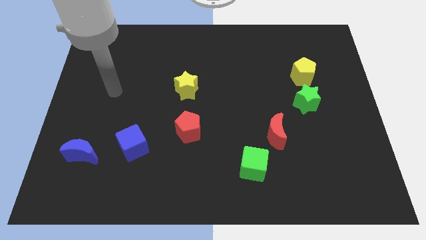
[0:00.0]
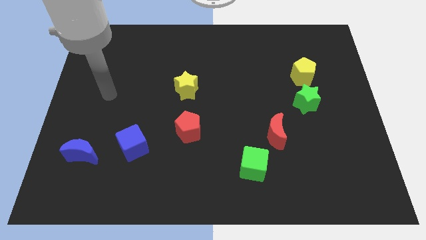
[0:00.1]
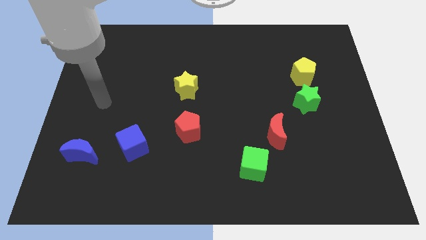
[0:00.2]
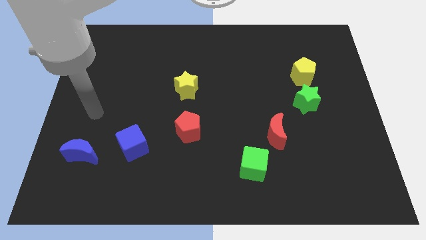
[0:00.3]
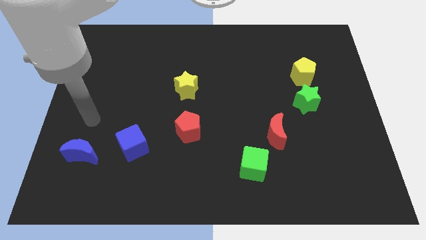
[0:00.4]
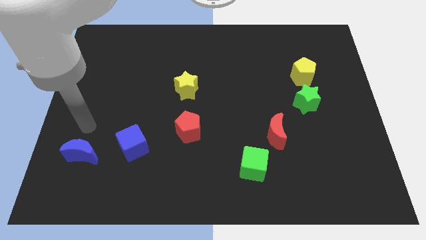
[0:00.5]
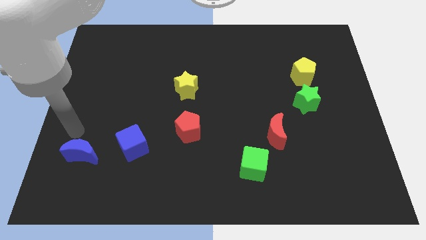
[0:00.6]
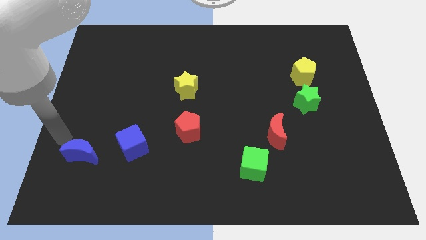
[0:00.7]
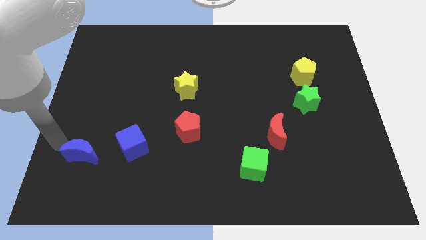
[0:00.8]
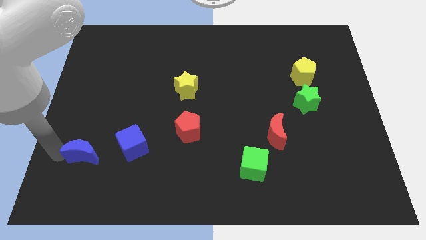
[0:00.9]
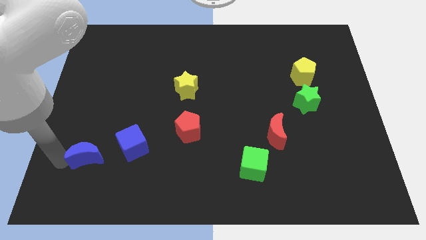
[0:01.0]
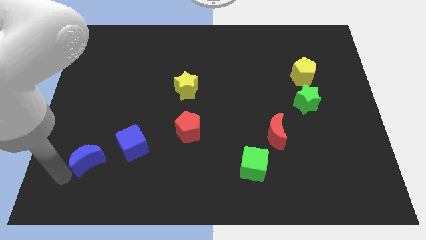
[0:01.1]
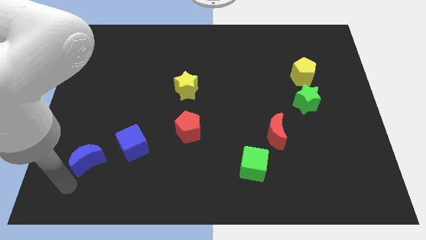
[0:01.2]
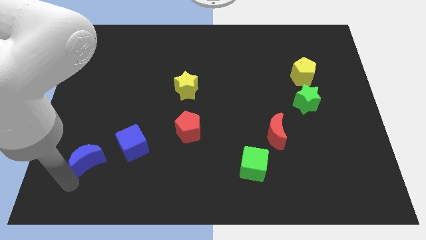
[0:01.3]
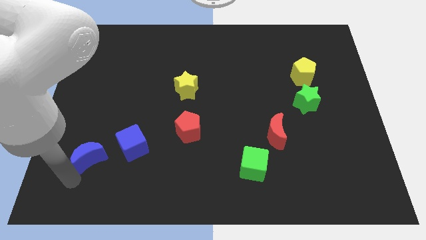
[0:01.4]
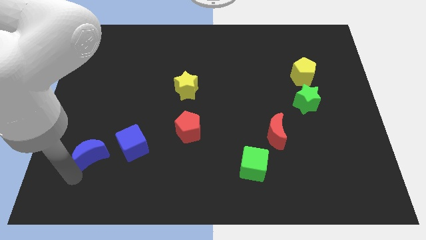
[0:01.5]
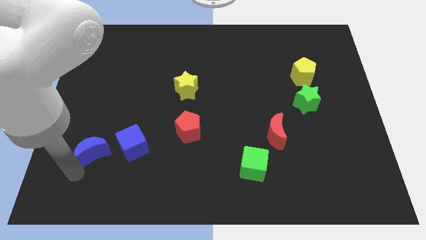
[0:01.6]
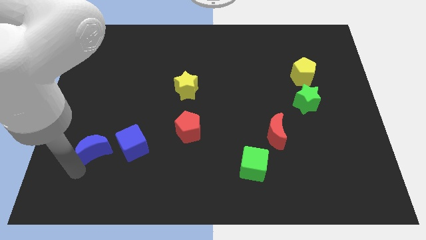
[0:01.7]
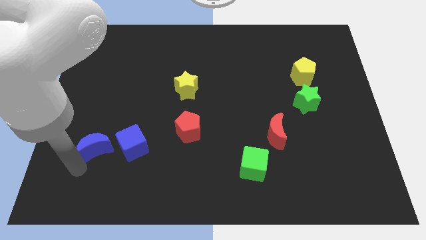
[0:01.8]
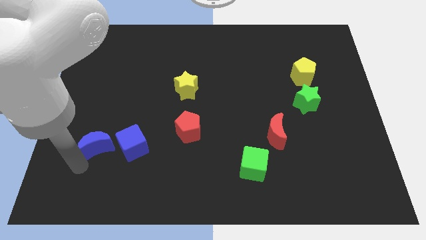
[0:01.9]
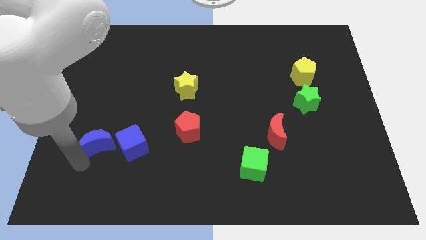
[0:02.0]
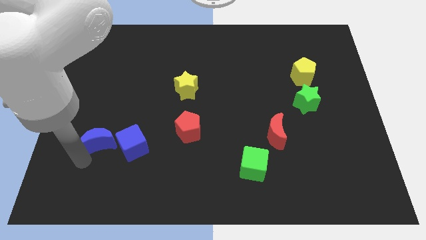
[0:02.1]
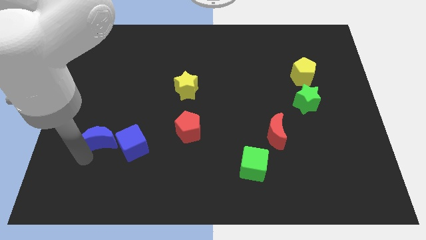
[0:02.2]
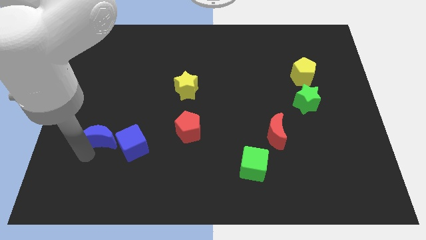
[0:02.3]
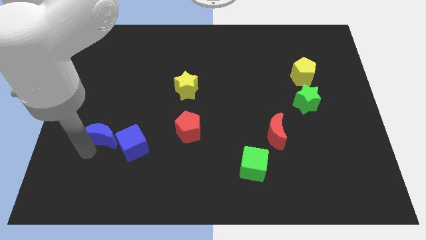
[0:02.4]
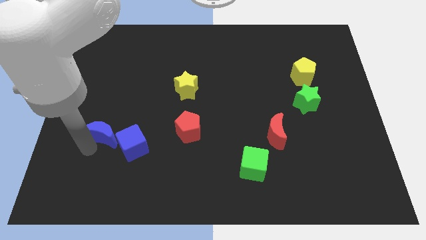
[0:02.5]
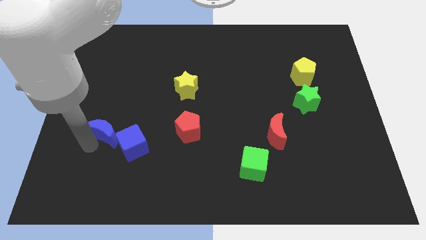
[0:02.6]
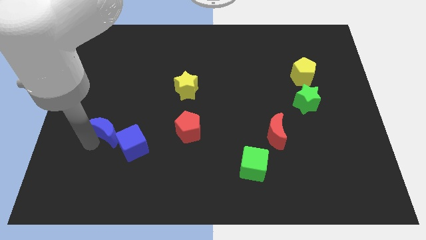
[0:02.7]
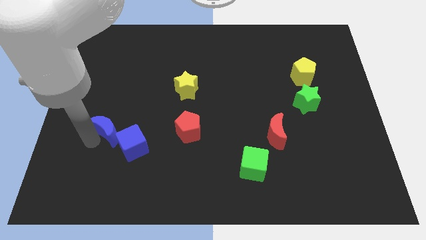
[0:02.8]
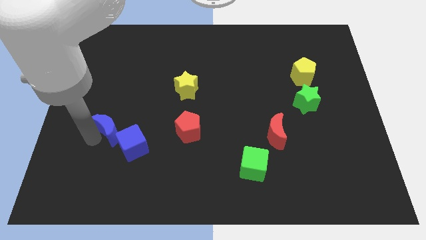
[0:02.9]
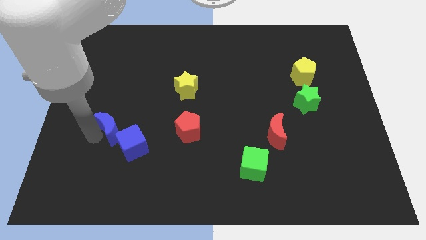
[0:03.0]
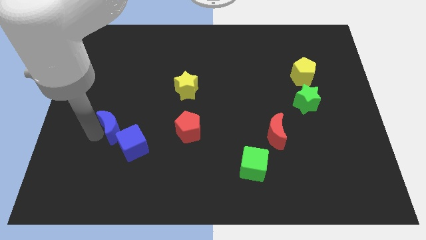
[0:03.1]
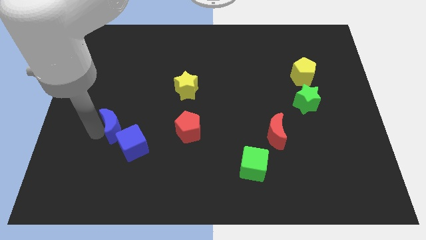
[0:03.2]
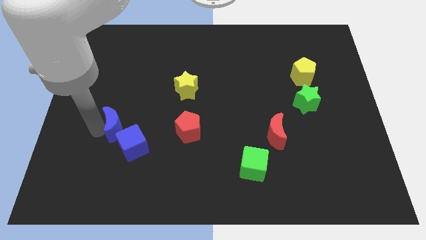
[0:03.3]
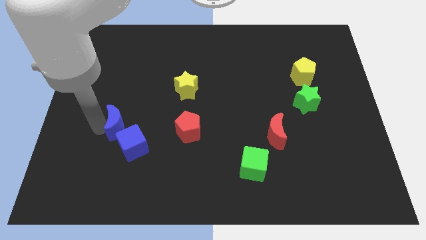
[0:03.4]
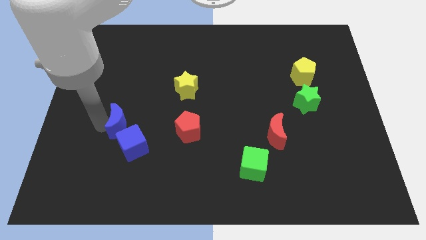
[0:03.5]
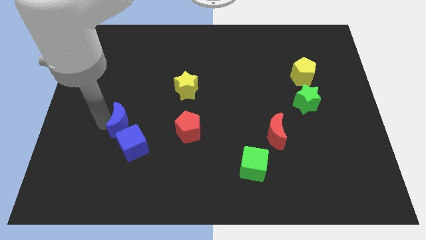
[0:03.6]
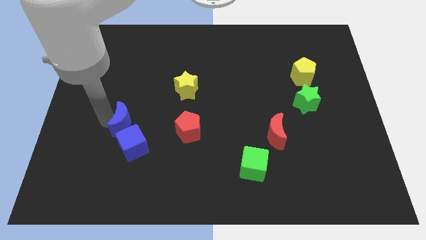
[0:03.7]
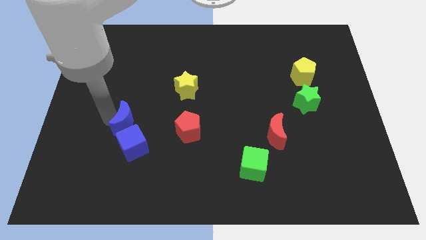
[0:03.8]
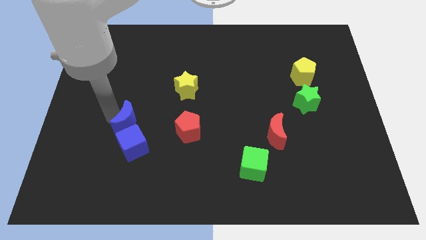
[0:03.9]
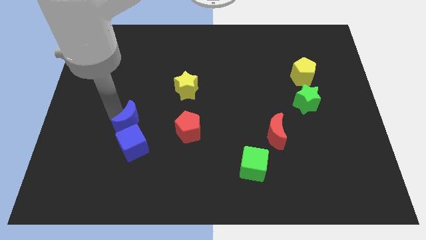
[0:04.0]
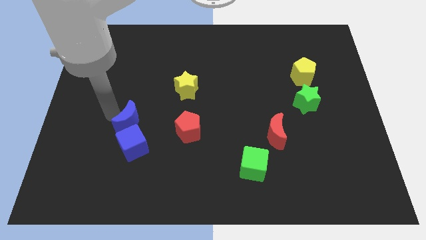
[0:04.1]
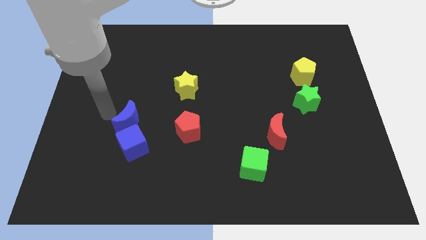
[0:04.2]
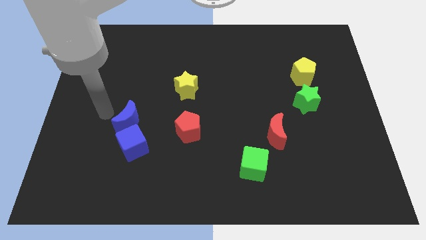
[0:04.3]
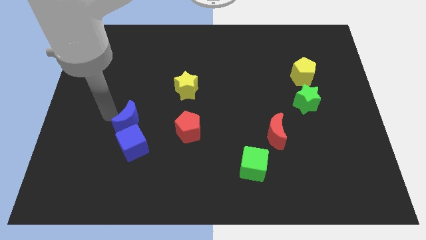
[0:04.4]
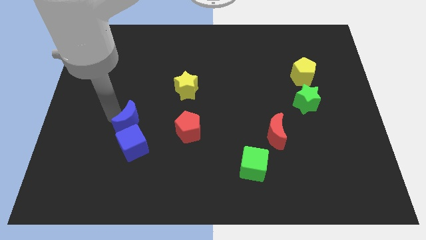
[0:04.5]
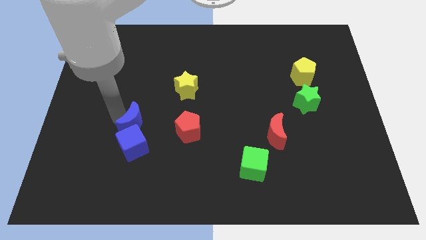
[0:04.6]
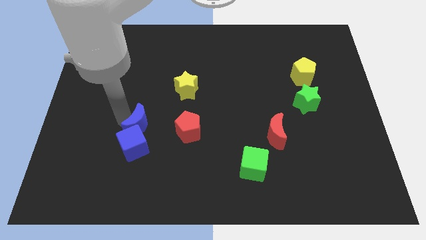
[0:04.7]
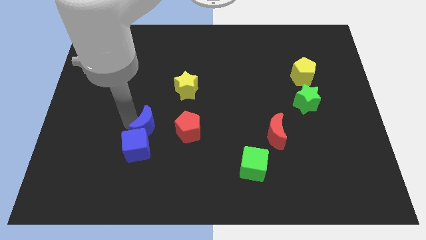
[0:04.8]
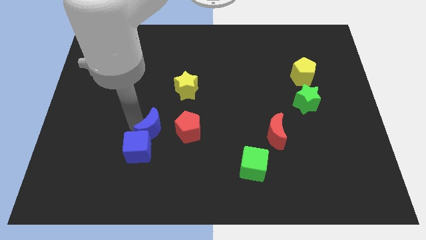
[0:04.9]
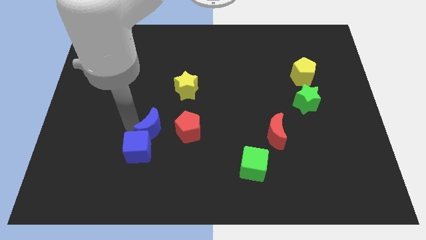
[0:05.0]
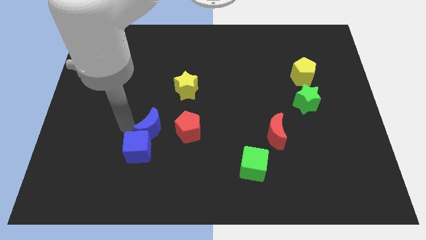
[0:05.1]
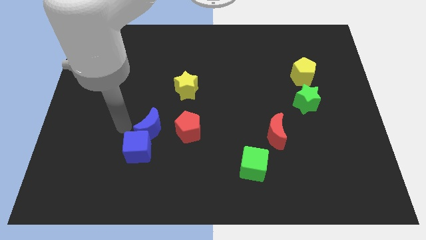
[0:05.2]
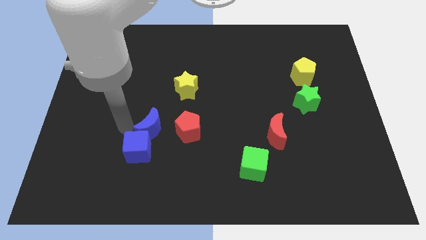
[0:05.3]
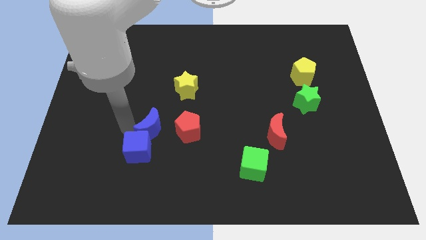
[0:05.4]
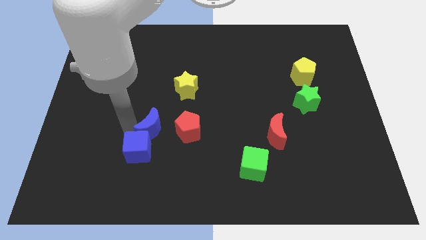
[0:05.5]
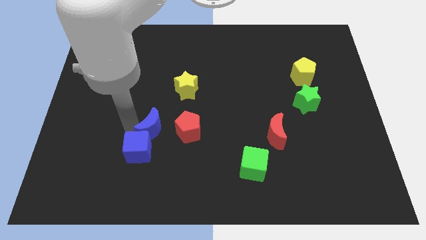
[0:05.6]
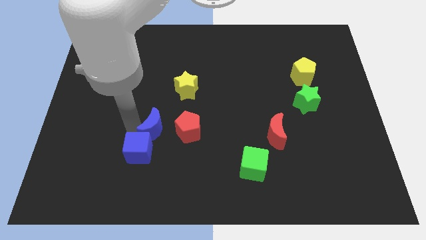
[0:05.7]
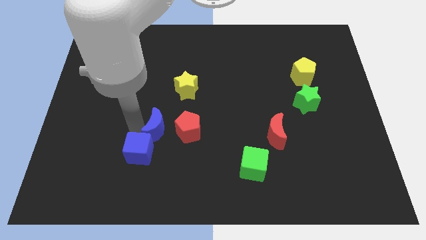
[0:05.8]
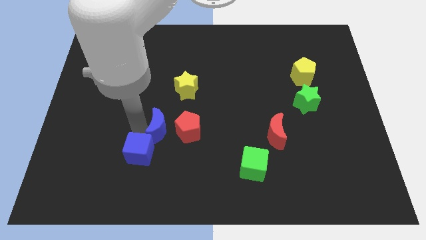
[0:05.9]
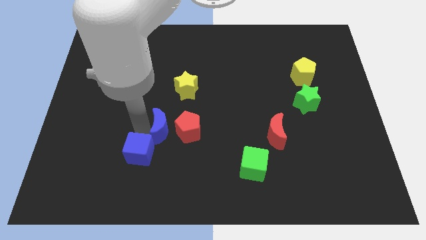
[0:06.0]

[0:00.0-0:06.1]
put the blue moon to the red pentagon

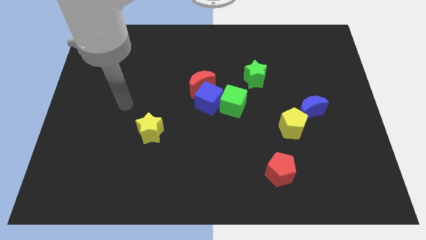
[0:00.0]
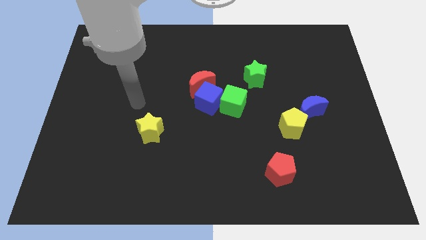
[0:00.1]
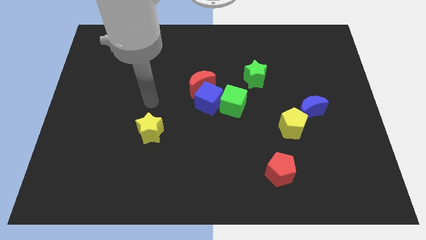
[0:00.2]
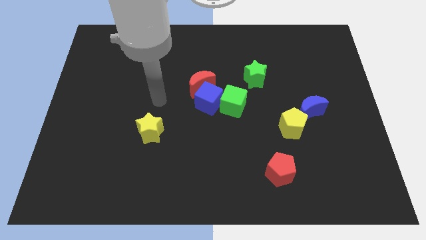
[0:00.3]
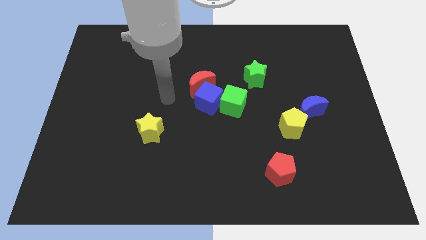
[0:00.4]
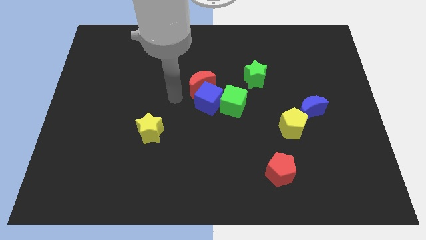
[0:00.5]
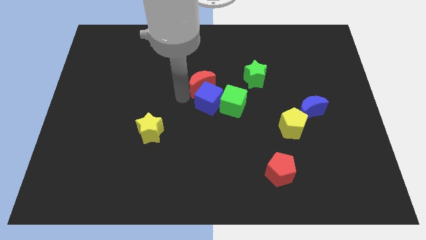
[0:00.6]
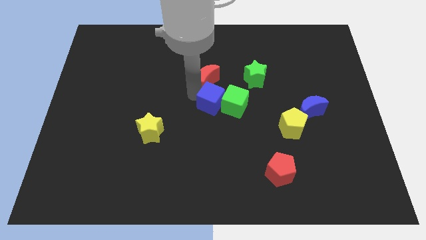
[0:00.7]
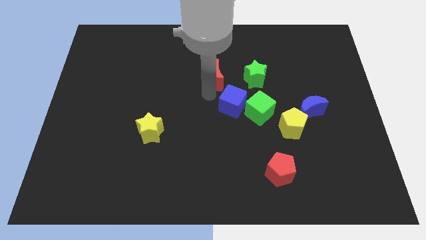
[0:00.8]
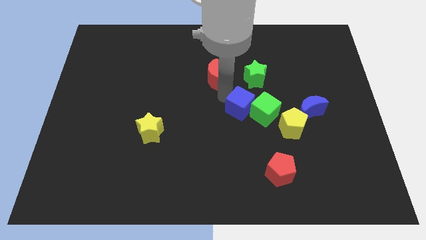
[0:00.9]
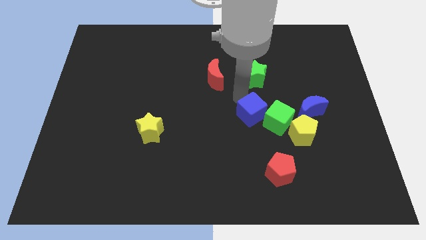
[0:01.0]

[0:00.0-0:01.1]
push the green cube towards the yellow pentagon

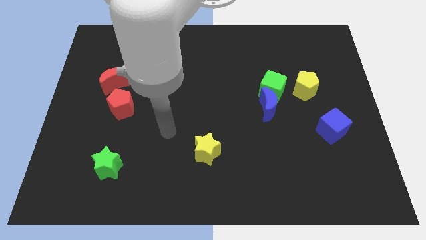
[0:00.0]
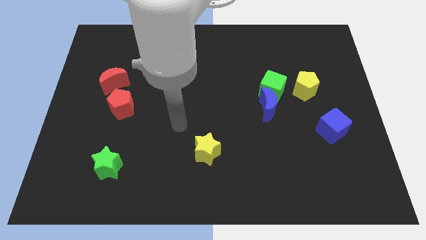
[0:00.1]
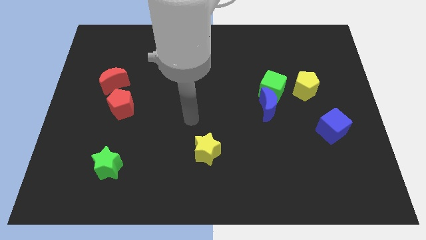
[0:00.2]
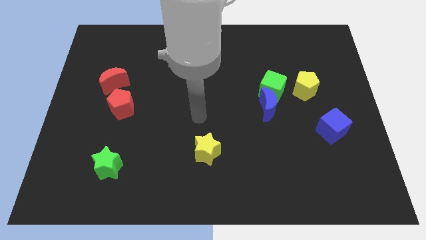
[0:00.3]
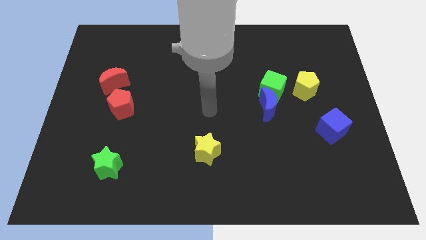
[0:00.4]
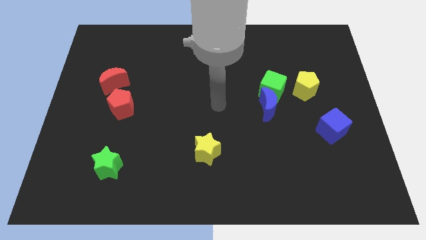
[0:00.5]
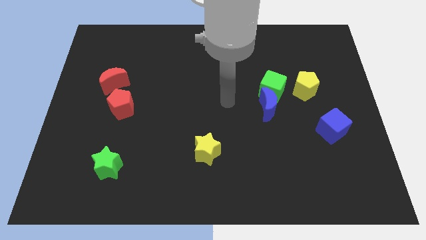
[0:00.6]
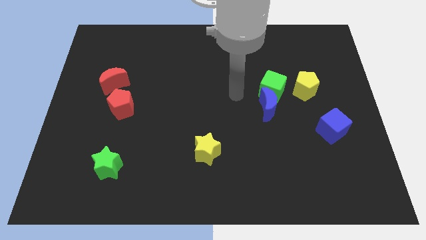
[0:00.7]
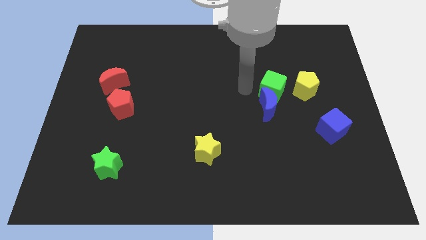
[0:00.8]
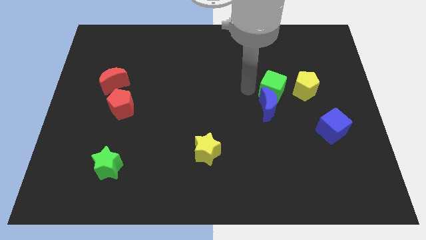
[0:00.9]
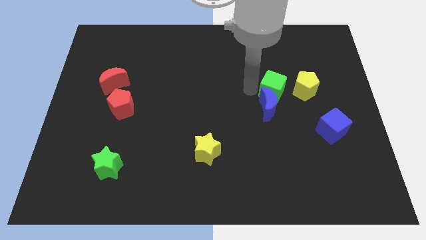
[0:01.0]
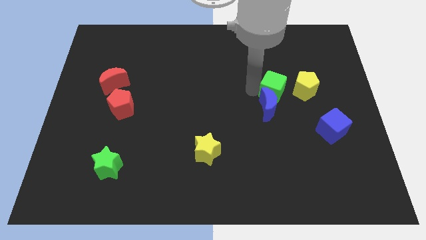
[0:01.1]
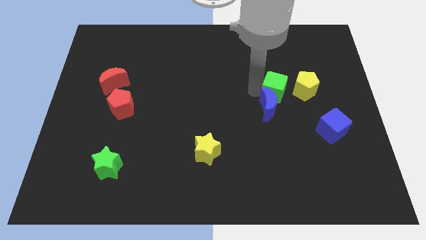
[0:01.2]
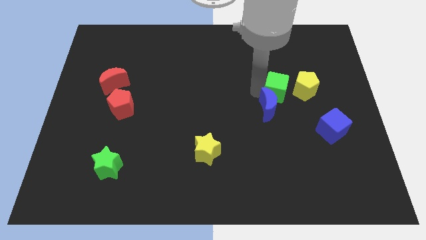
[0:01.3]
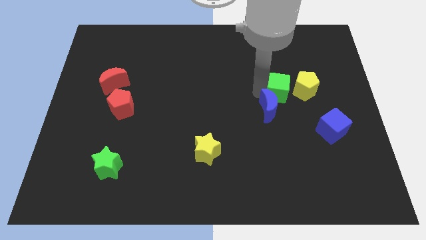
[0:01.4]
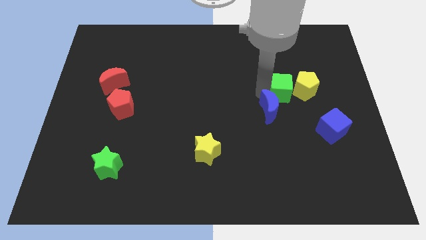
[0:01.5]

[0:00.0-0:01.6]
move the green cube towards the yellow pentagon
